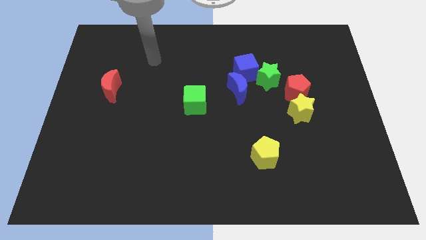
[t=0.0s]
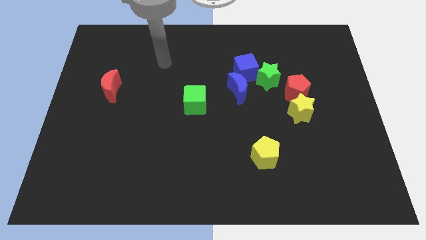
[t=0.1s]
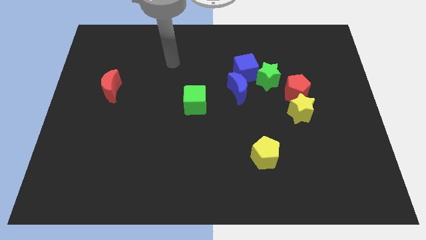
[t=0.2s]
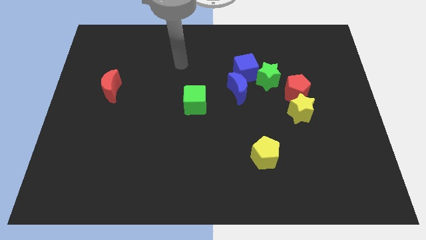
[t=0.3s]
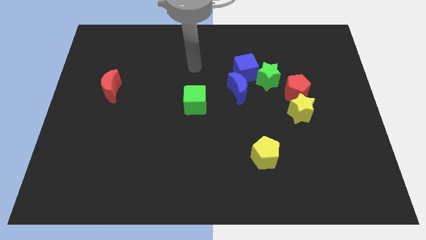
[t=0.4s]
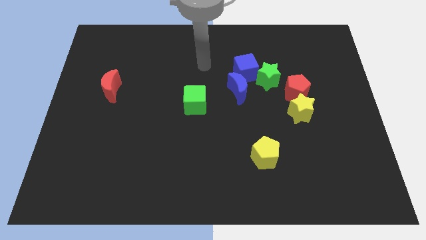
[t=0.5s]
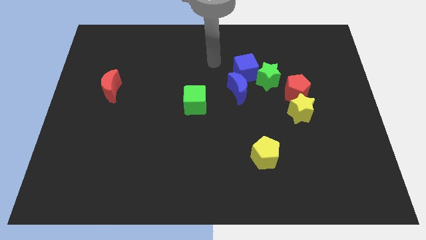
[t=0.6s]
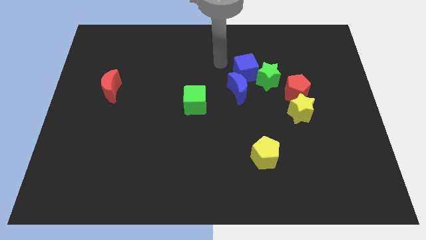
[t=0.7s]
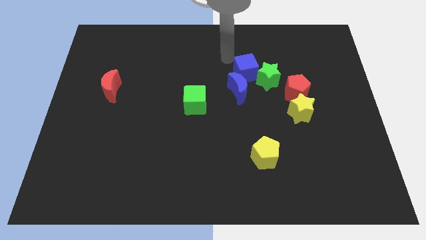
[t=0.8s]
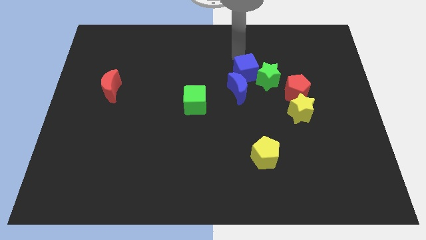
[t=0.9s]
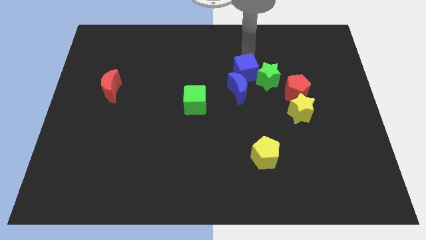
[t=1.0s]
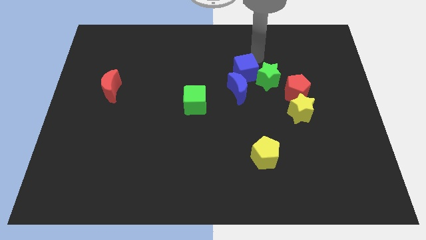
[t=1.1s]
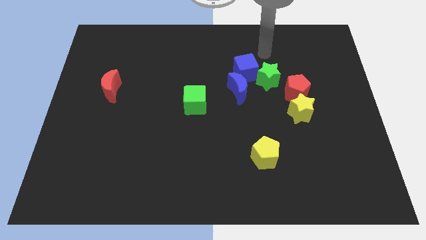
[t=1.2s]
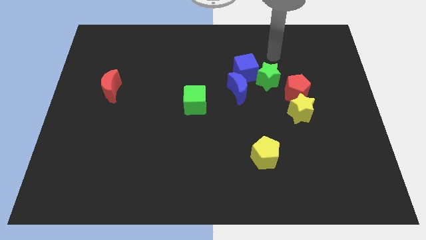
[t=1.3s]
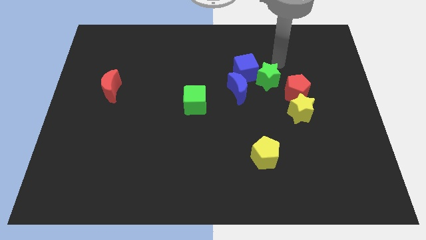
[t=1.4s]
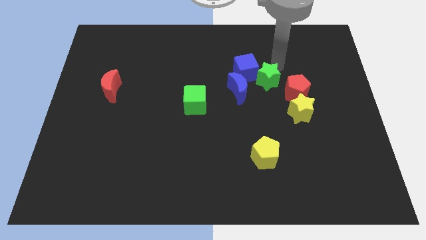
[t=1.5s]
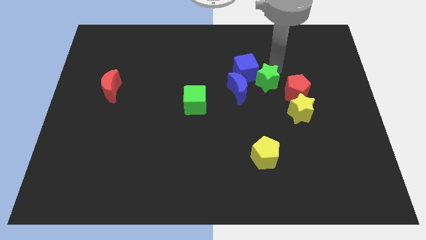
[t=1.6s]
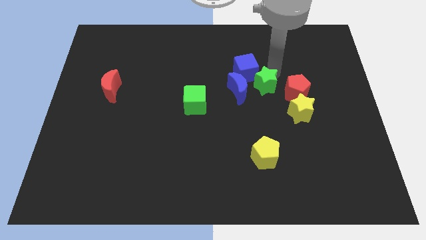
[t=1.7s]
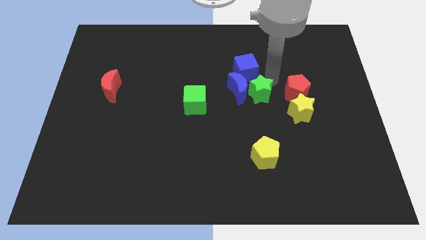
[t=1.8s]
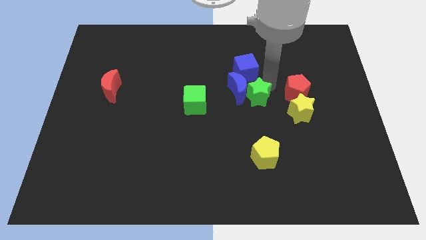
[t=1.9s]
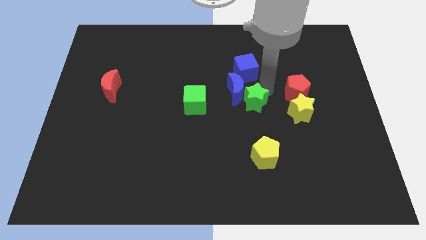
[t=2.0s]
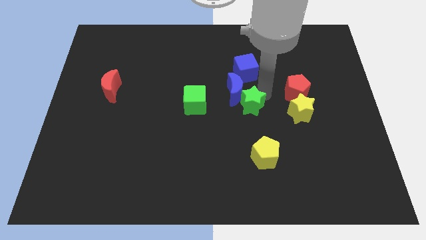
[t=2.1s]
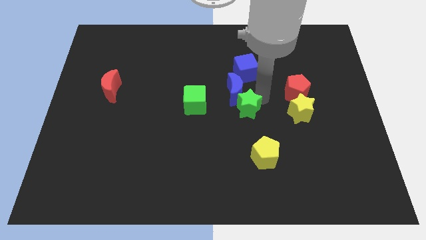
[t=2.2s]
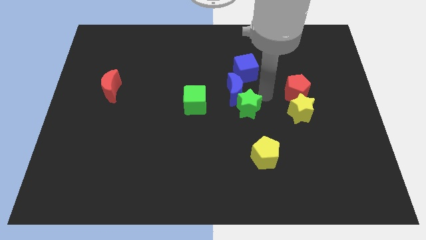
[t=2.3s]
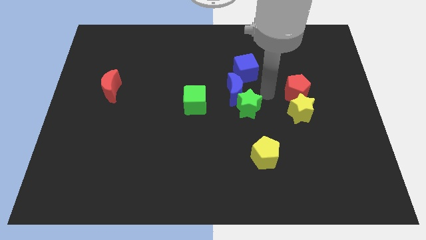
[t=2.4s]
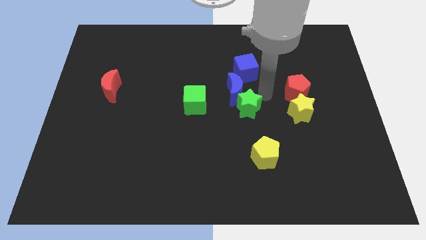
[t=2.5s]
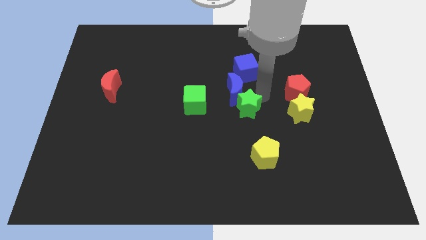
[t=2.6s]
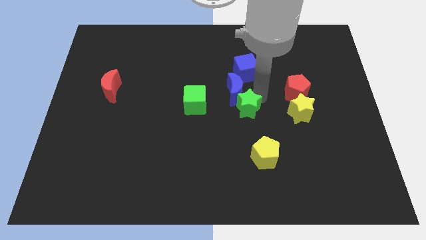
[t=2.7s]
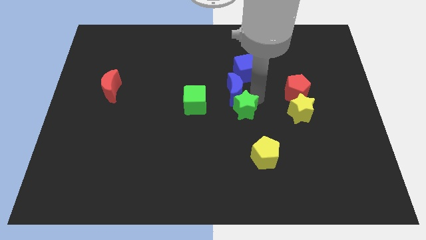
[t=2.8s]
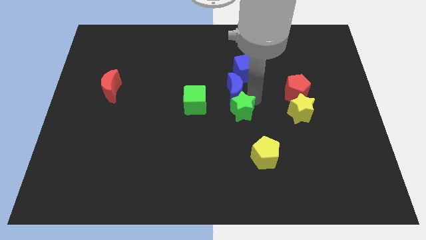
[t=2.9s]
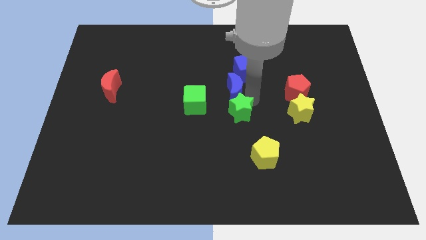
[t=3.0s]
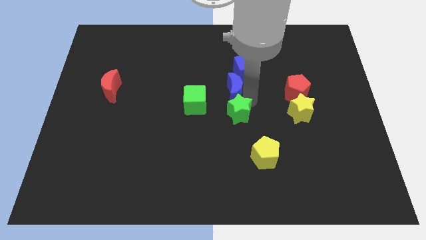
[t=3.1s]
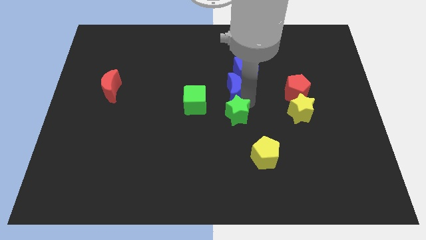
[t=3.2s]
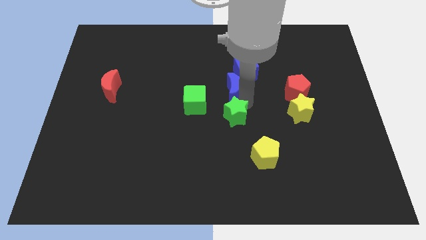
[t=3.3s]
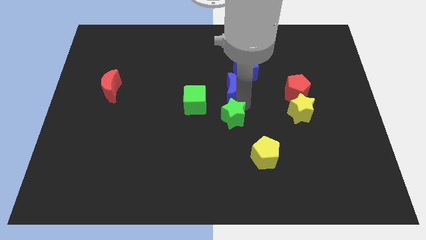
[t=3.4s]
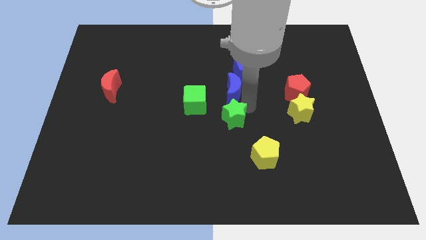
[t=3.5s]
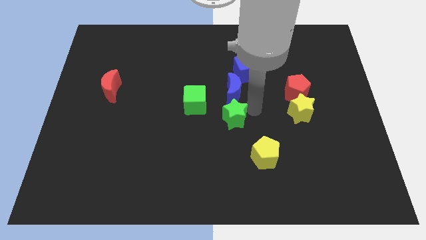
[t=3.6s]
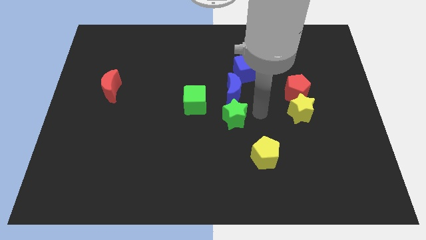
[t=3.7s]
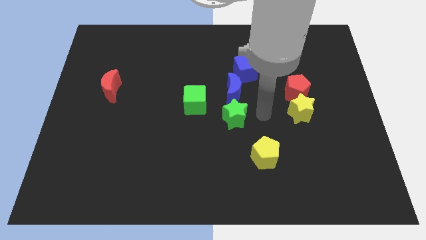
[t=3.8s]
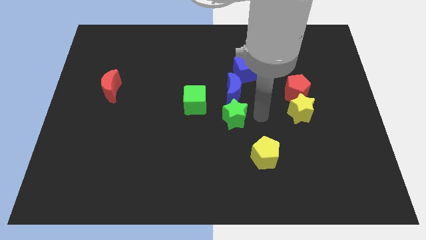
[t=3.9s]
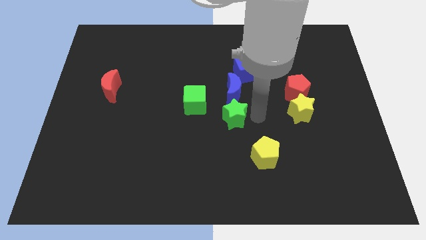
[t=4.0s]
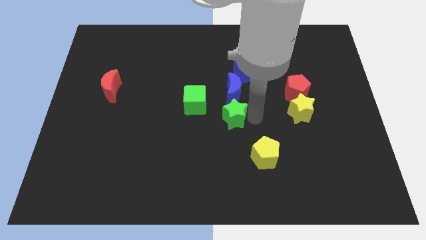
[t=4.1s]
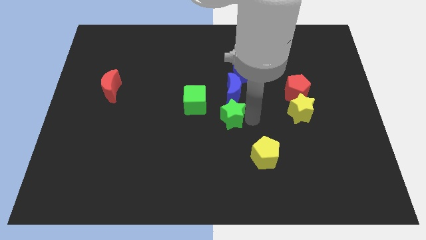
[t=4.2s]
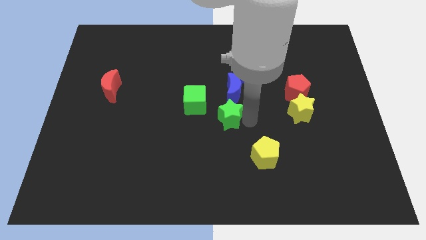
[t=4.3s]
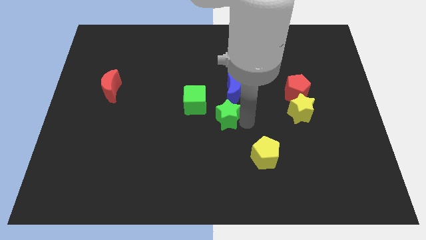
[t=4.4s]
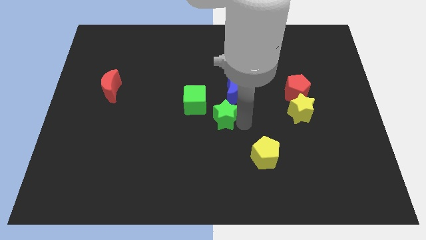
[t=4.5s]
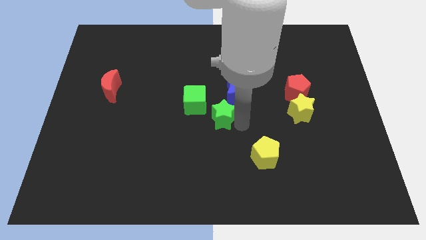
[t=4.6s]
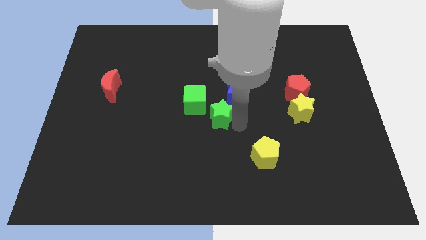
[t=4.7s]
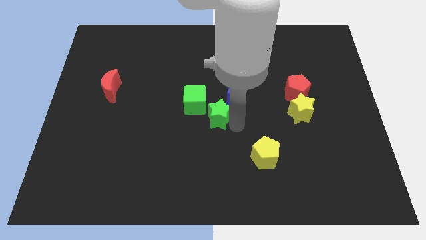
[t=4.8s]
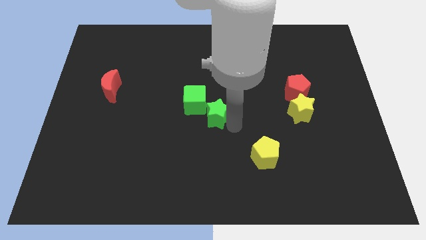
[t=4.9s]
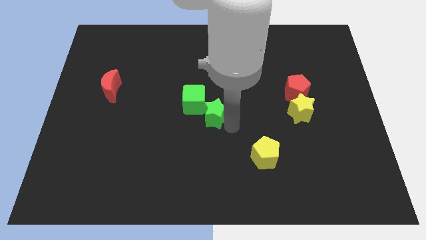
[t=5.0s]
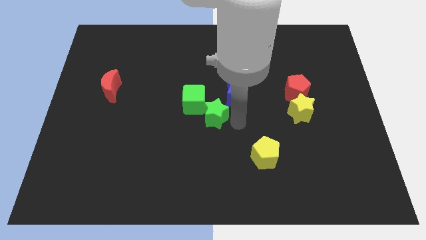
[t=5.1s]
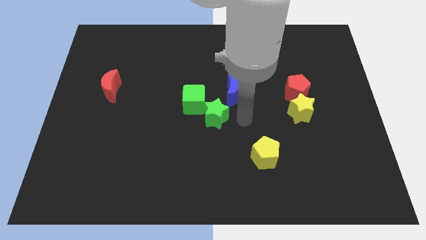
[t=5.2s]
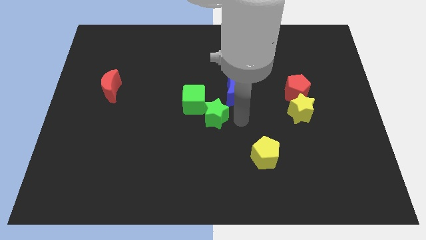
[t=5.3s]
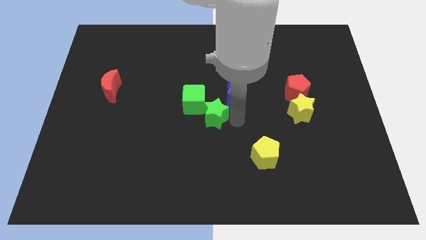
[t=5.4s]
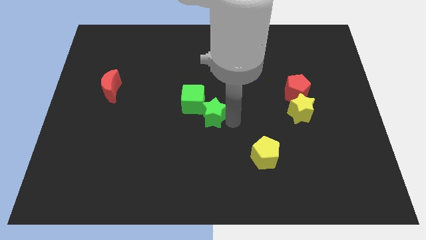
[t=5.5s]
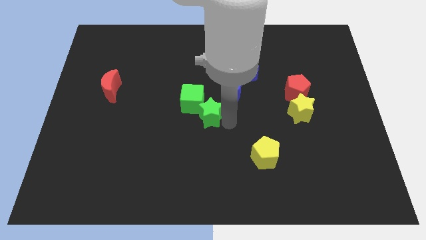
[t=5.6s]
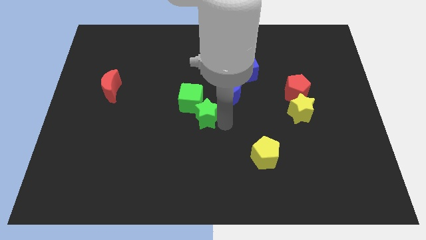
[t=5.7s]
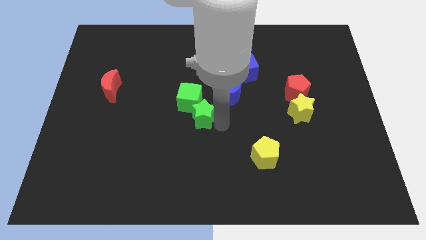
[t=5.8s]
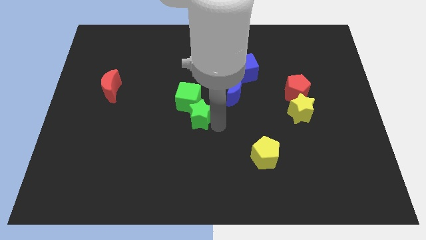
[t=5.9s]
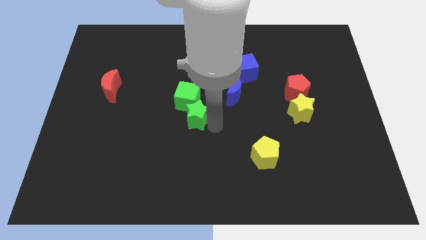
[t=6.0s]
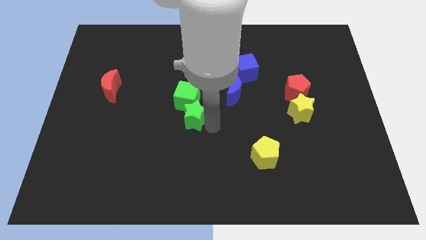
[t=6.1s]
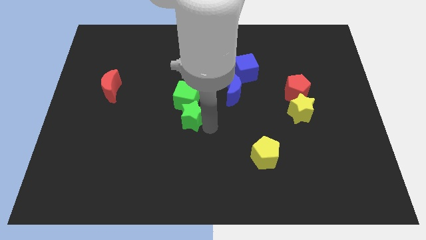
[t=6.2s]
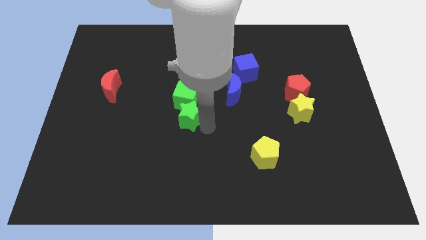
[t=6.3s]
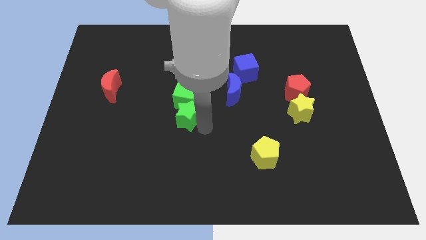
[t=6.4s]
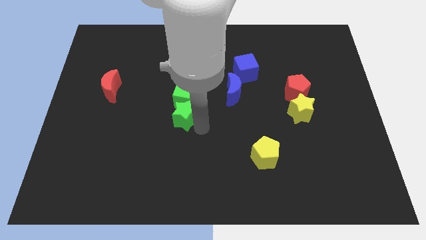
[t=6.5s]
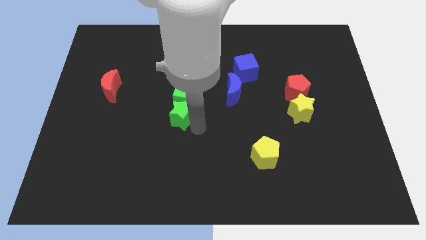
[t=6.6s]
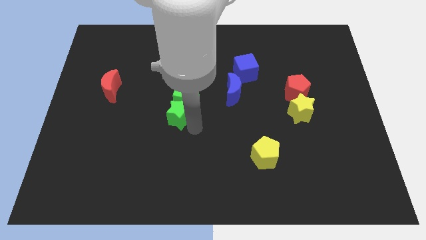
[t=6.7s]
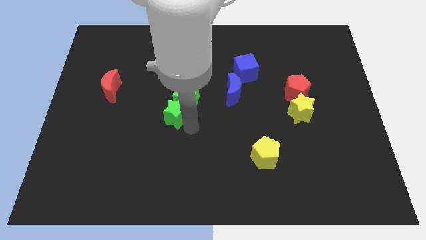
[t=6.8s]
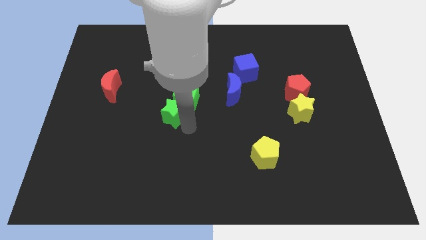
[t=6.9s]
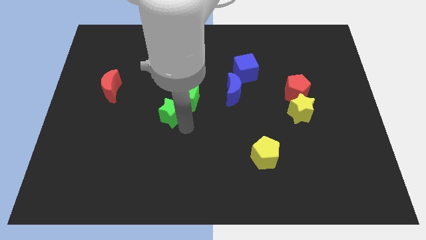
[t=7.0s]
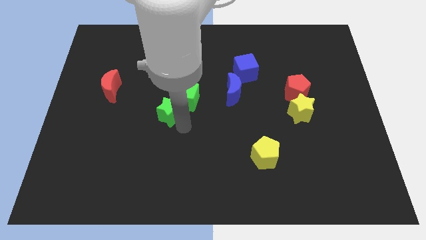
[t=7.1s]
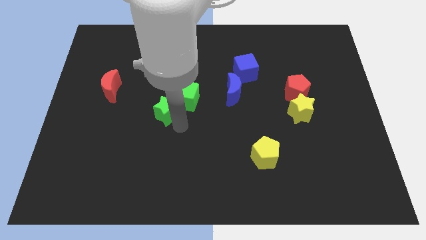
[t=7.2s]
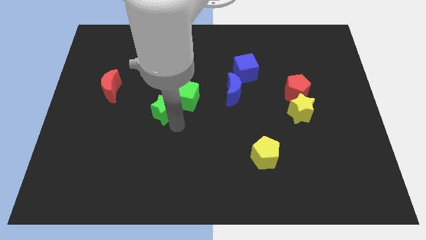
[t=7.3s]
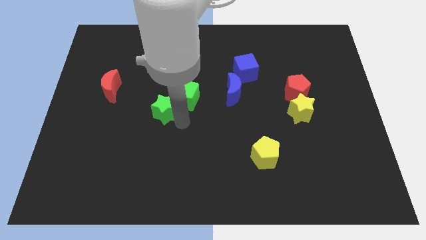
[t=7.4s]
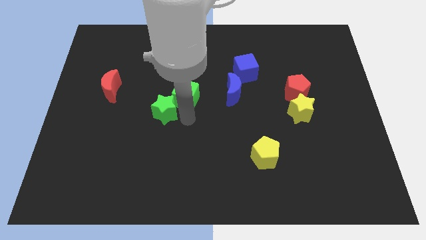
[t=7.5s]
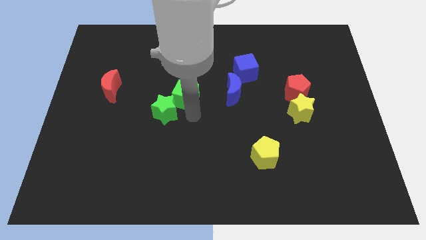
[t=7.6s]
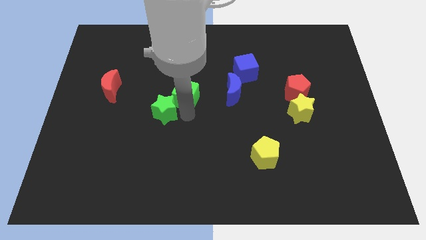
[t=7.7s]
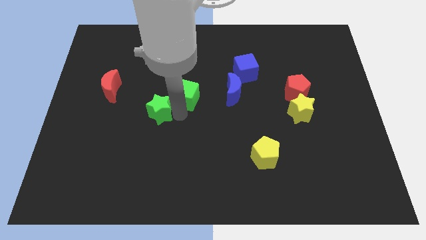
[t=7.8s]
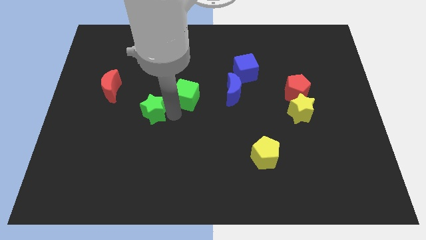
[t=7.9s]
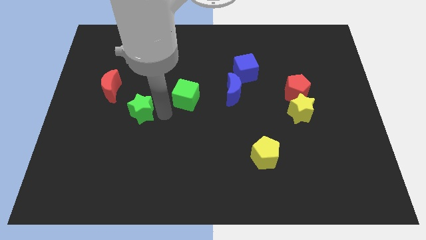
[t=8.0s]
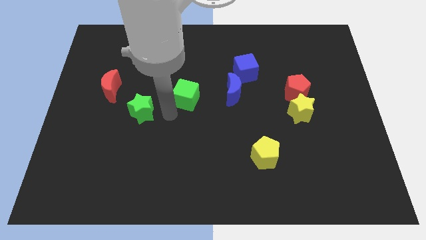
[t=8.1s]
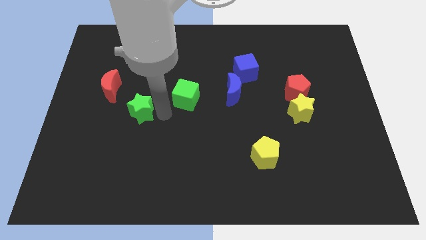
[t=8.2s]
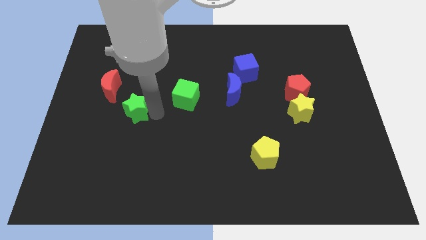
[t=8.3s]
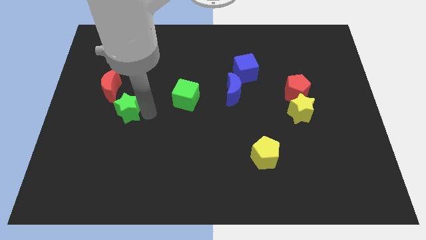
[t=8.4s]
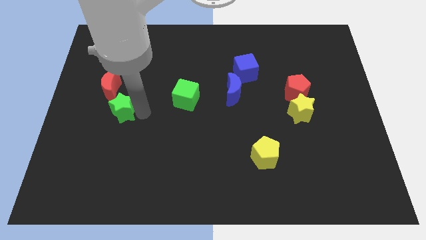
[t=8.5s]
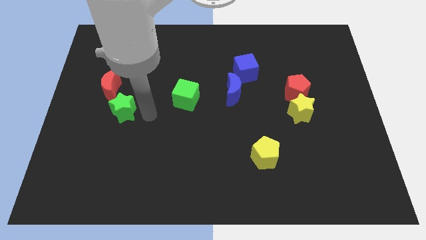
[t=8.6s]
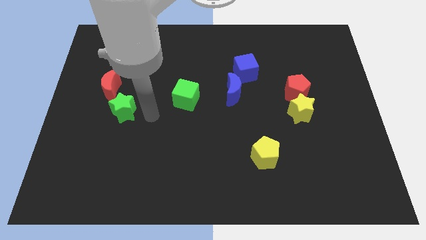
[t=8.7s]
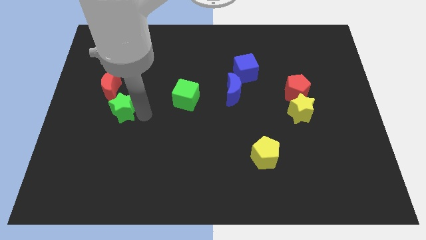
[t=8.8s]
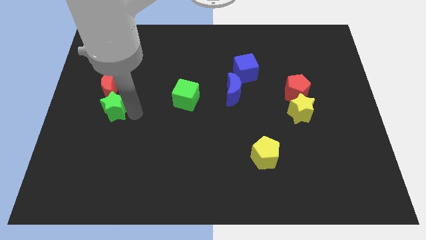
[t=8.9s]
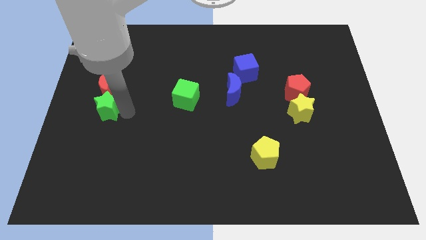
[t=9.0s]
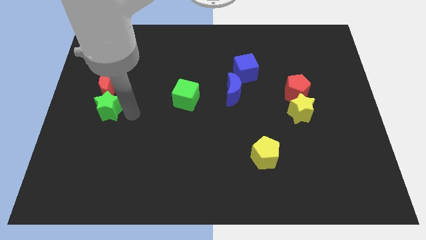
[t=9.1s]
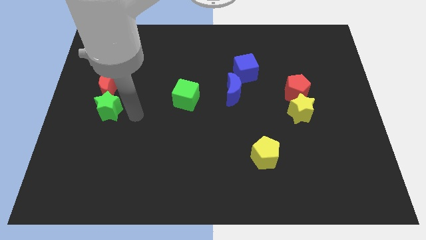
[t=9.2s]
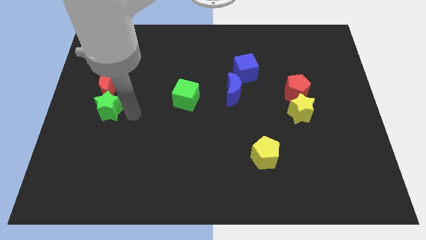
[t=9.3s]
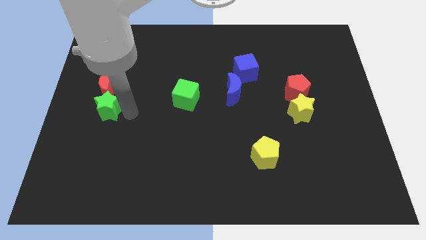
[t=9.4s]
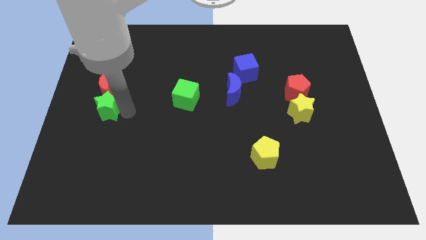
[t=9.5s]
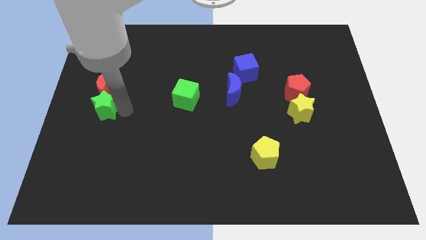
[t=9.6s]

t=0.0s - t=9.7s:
move the green star to the center left
